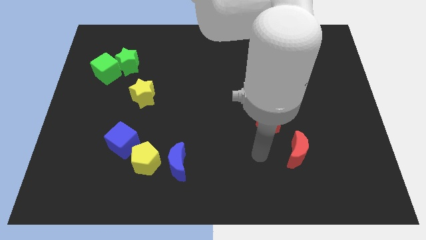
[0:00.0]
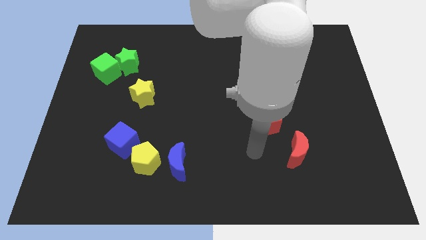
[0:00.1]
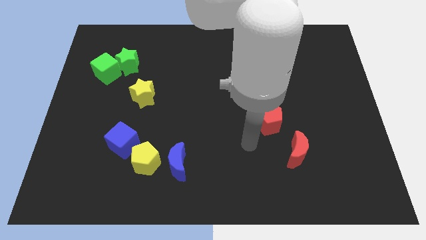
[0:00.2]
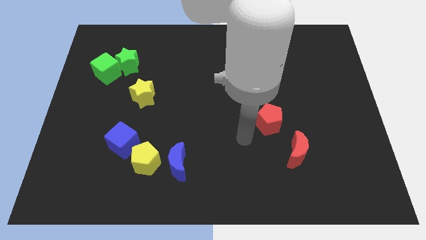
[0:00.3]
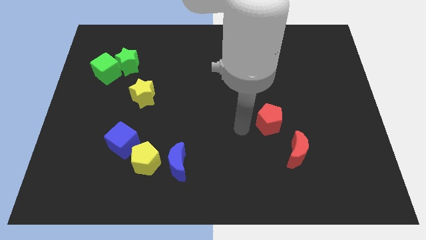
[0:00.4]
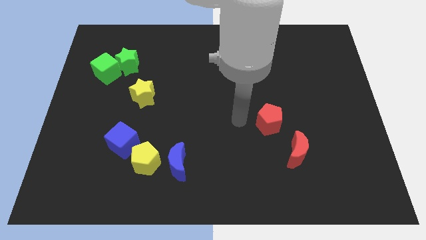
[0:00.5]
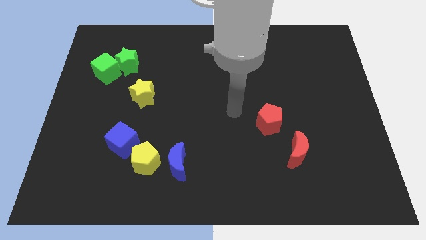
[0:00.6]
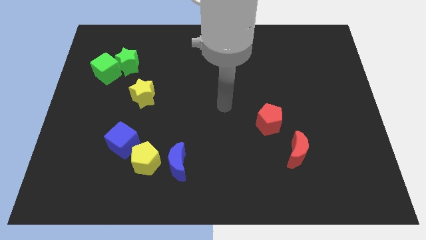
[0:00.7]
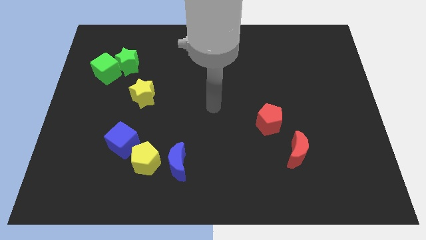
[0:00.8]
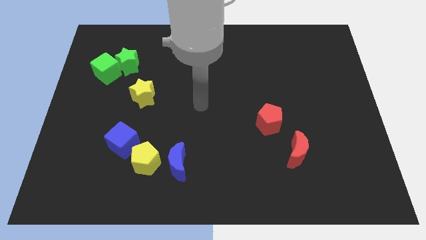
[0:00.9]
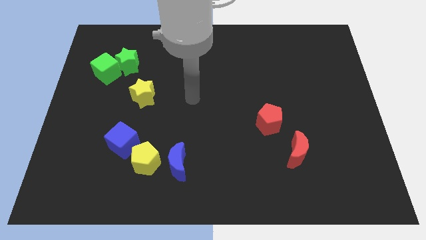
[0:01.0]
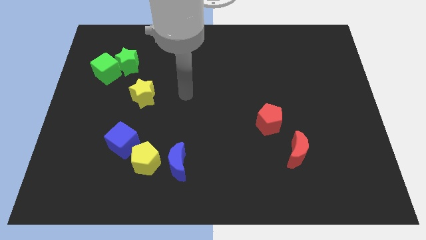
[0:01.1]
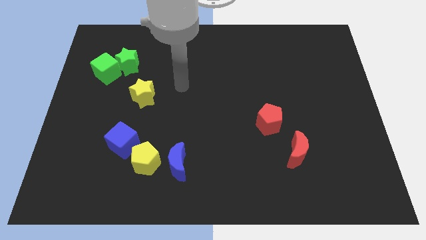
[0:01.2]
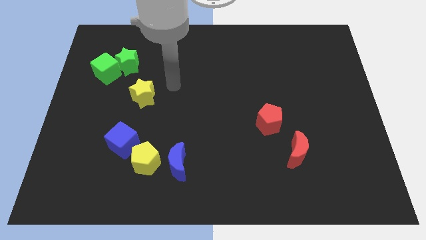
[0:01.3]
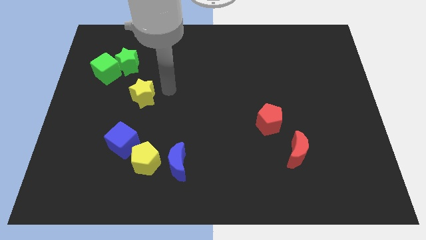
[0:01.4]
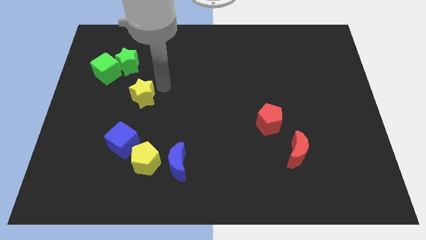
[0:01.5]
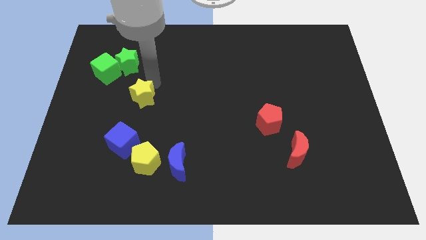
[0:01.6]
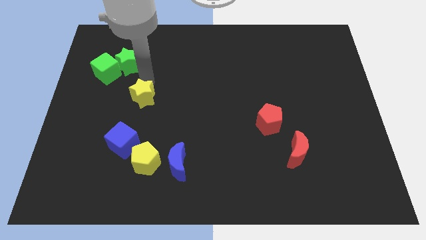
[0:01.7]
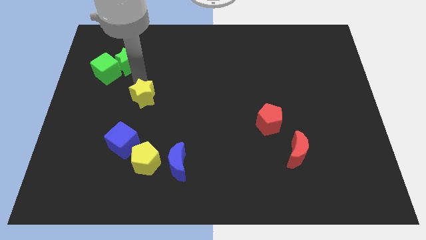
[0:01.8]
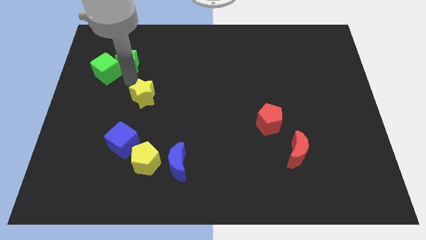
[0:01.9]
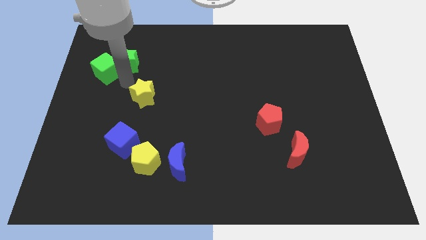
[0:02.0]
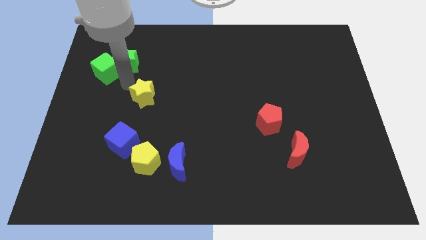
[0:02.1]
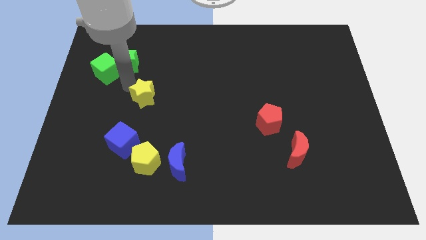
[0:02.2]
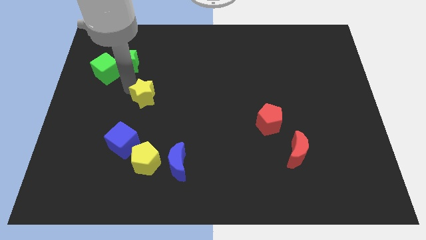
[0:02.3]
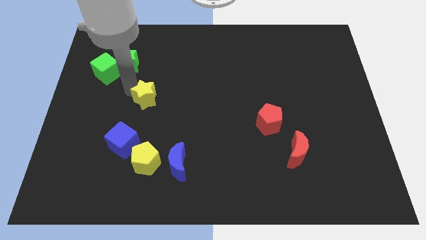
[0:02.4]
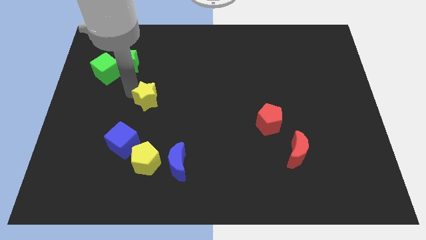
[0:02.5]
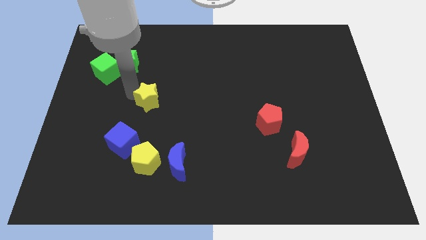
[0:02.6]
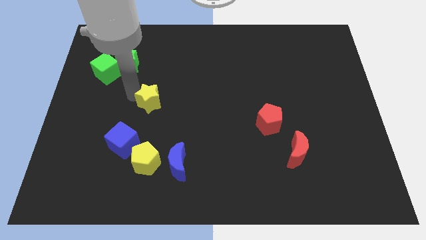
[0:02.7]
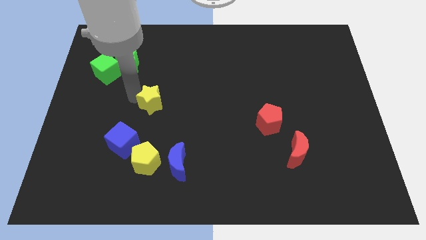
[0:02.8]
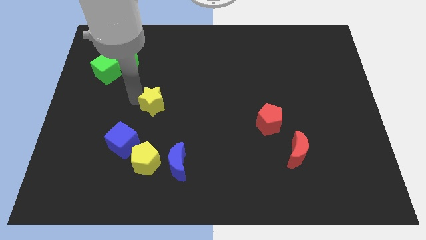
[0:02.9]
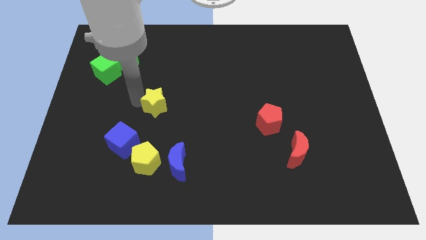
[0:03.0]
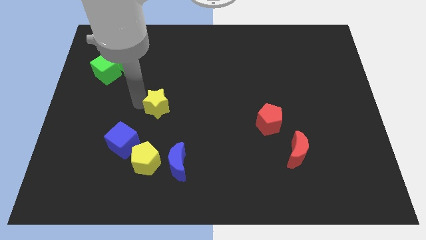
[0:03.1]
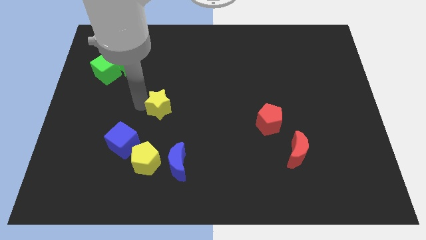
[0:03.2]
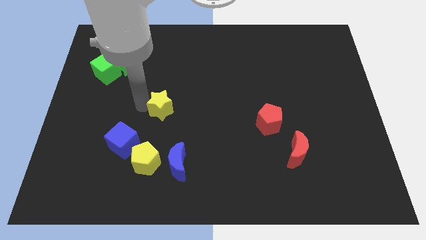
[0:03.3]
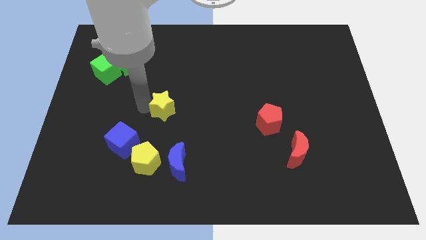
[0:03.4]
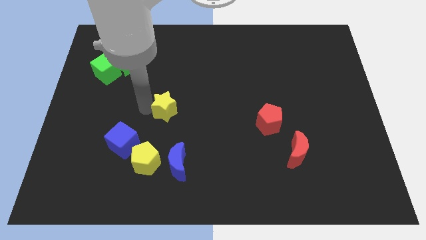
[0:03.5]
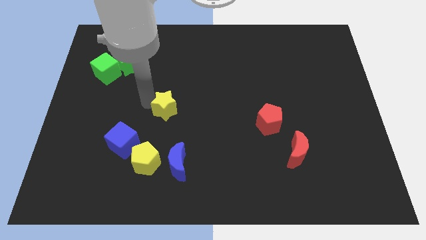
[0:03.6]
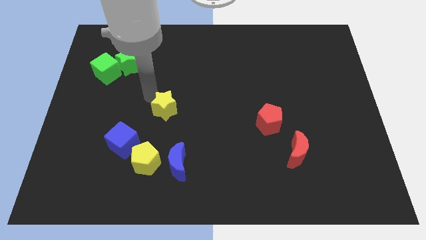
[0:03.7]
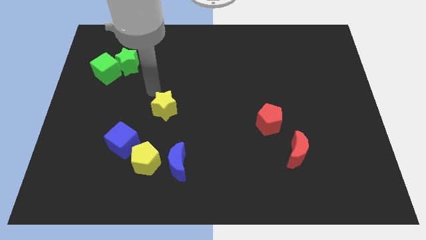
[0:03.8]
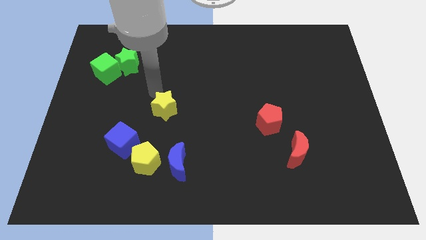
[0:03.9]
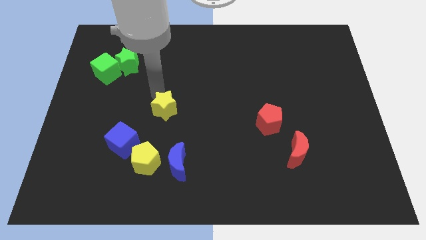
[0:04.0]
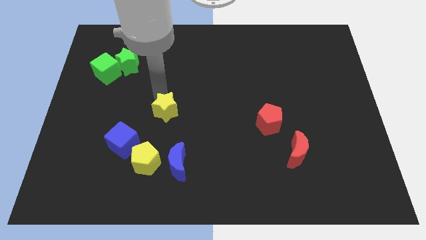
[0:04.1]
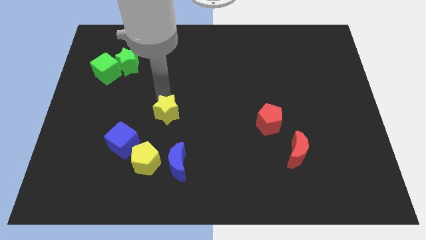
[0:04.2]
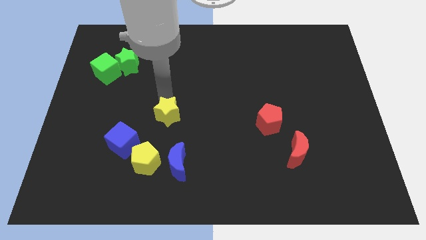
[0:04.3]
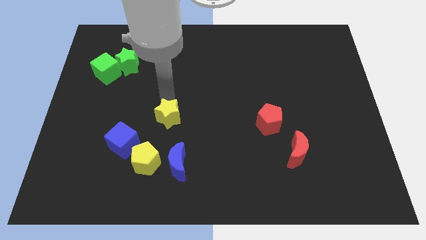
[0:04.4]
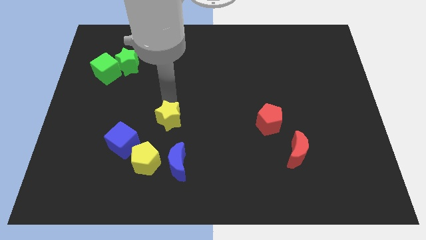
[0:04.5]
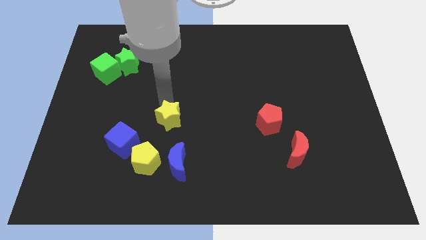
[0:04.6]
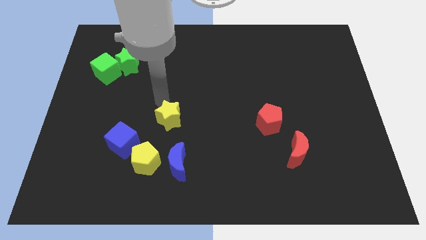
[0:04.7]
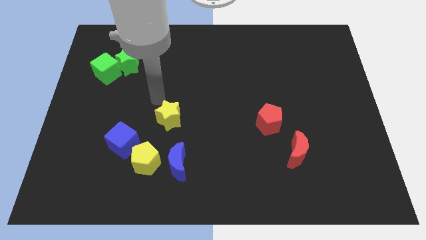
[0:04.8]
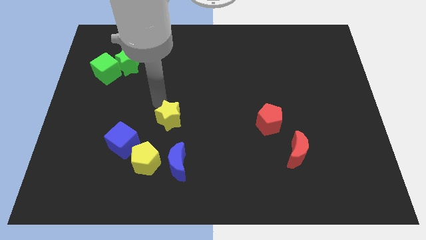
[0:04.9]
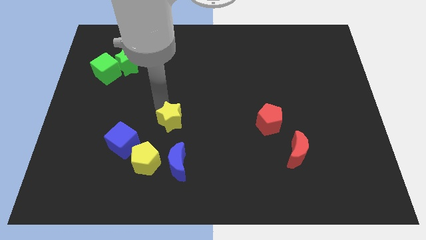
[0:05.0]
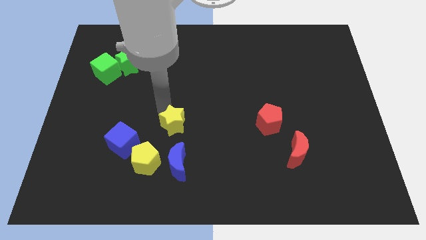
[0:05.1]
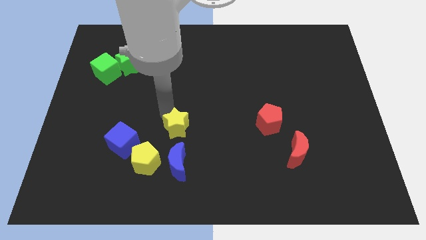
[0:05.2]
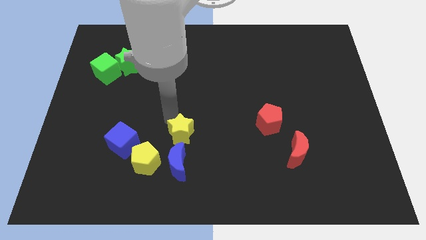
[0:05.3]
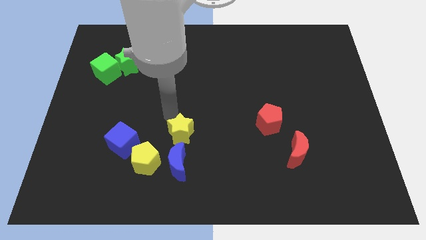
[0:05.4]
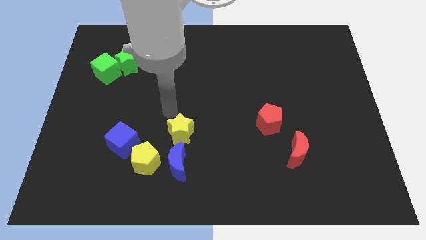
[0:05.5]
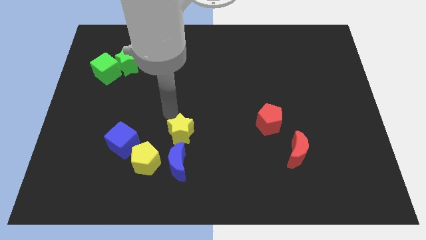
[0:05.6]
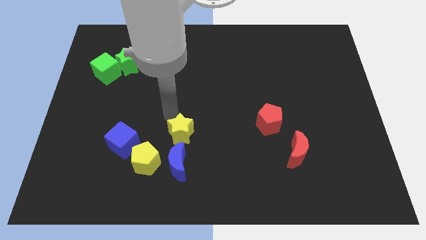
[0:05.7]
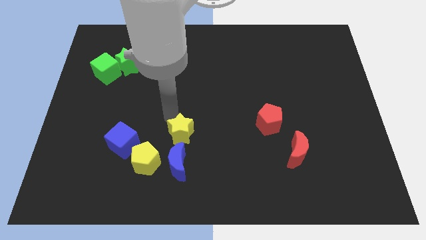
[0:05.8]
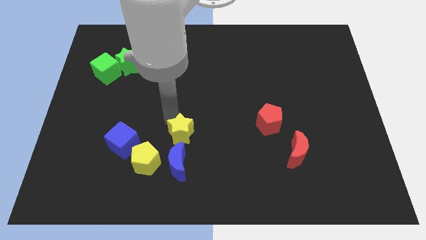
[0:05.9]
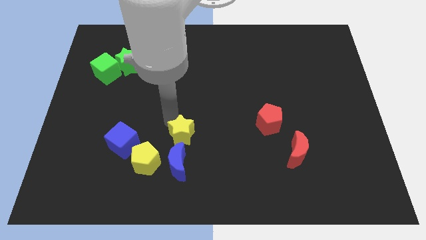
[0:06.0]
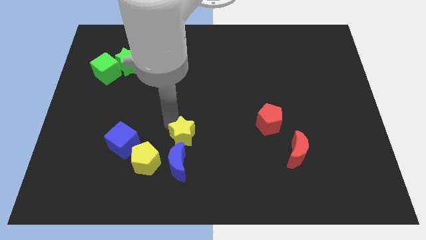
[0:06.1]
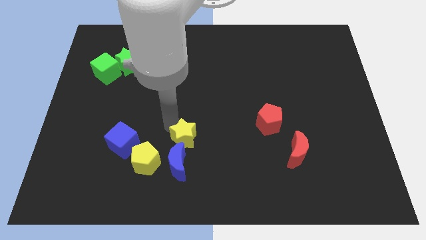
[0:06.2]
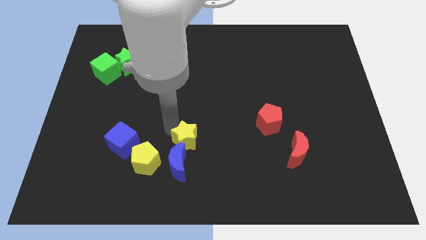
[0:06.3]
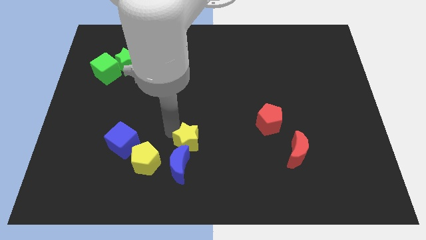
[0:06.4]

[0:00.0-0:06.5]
slide the yellow star just right of the yellow pentagon
